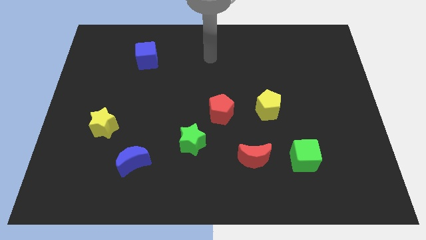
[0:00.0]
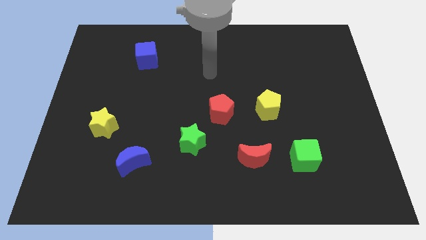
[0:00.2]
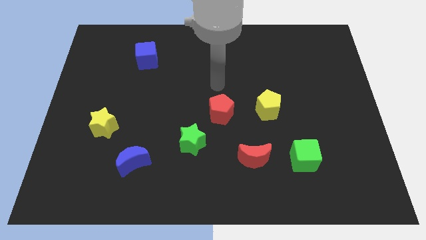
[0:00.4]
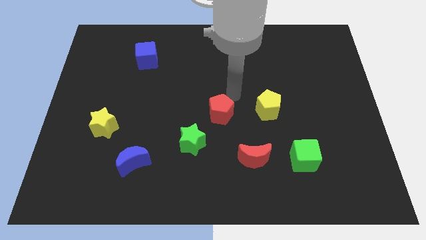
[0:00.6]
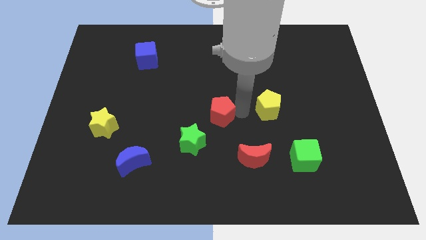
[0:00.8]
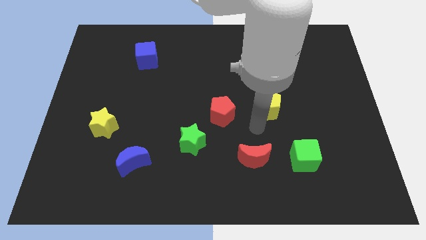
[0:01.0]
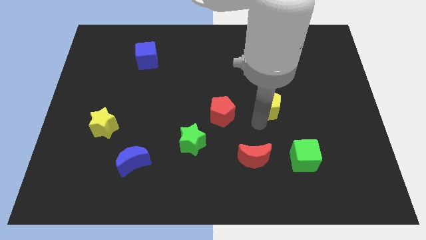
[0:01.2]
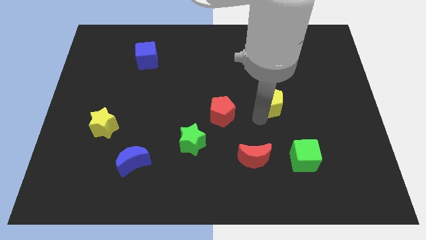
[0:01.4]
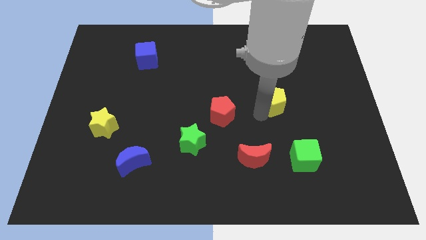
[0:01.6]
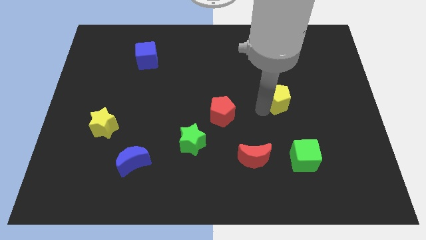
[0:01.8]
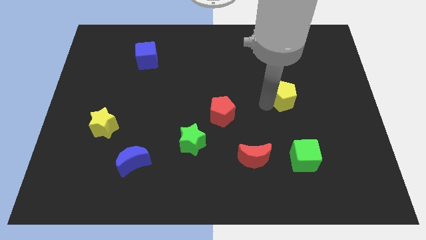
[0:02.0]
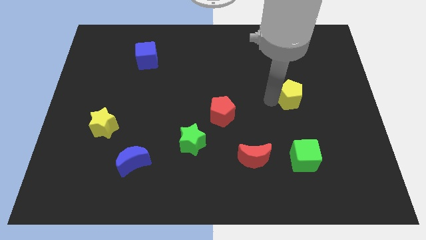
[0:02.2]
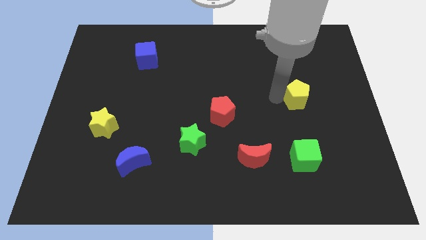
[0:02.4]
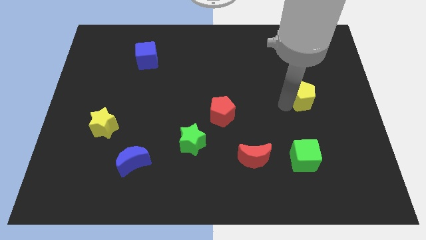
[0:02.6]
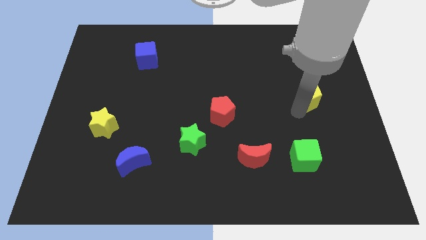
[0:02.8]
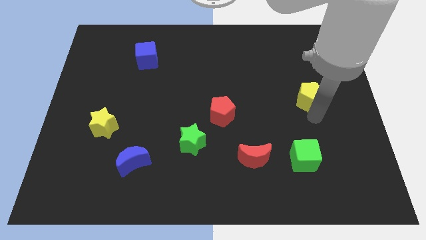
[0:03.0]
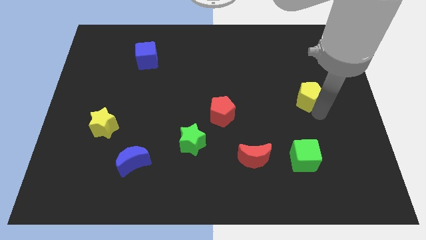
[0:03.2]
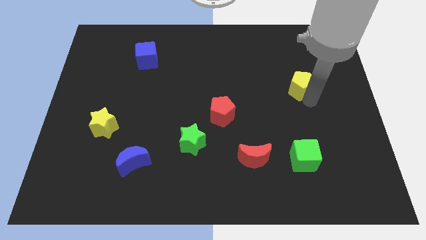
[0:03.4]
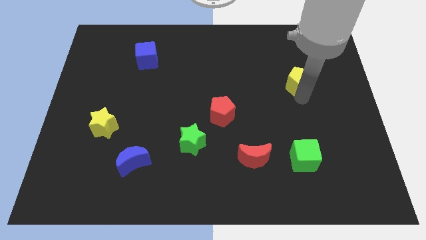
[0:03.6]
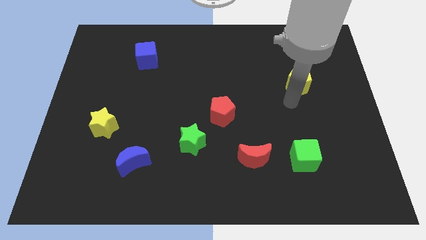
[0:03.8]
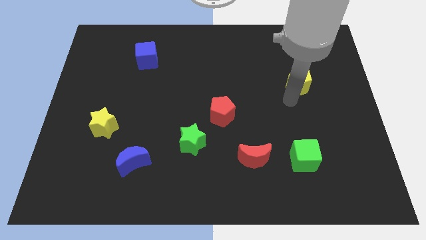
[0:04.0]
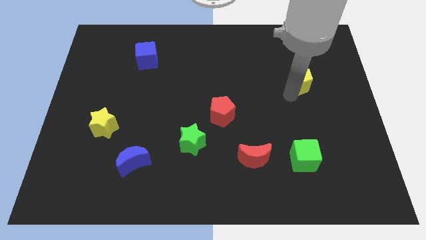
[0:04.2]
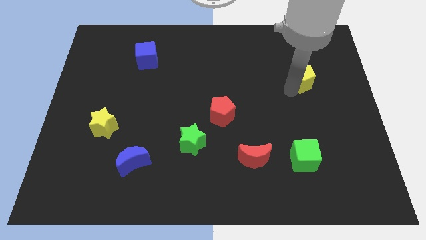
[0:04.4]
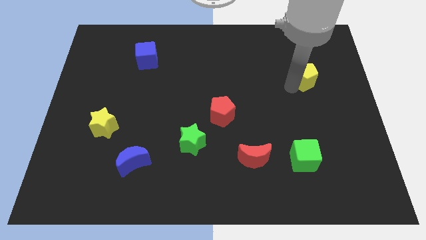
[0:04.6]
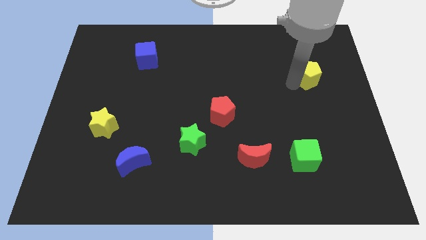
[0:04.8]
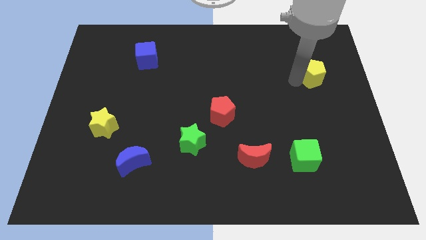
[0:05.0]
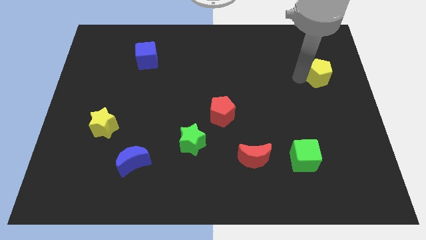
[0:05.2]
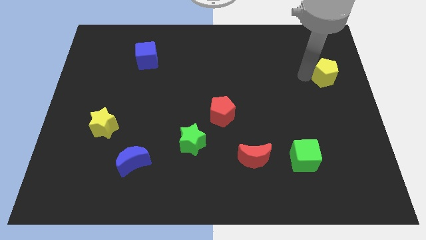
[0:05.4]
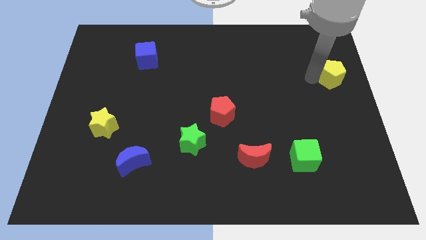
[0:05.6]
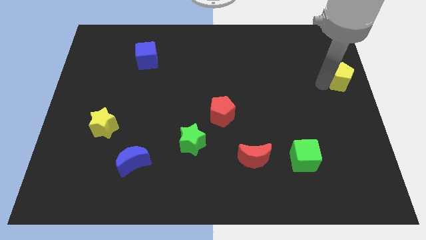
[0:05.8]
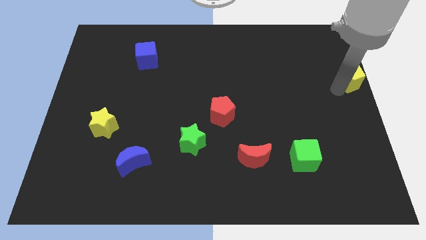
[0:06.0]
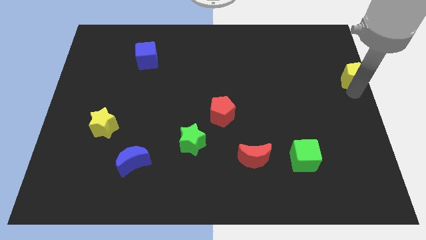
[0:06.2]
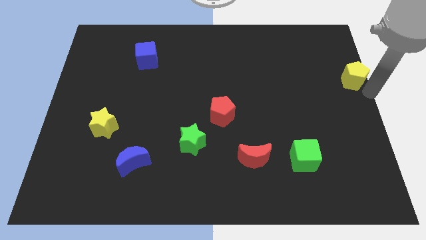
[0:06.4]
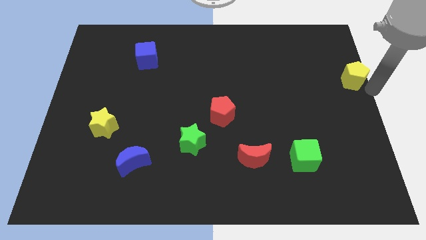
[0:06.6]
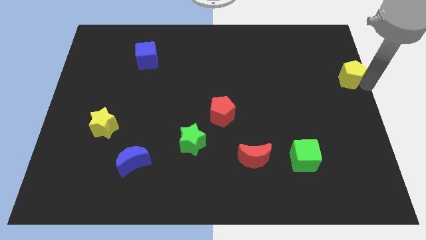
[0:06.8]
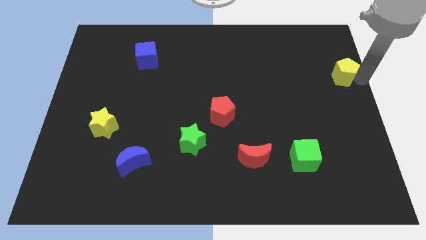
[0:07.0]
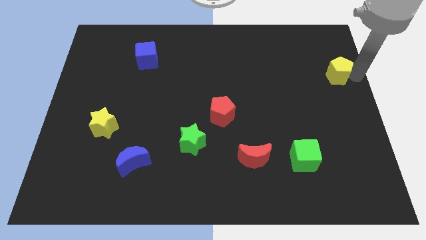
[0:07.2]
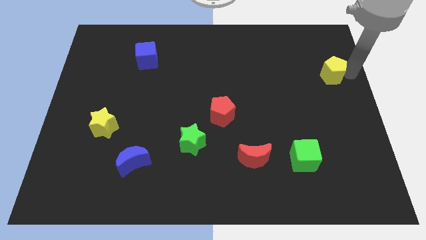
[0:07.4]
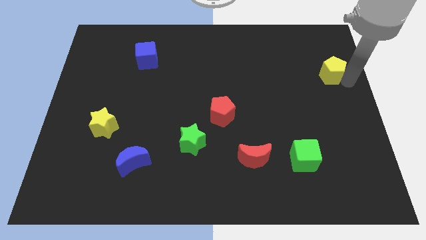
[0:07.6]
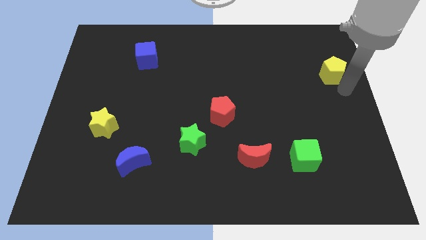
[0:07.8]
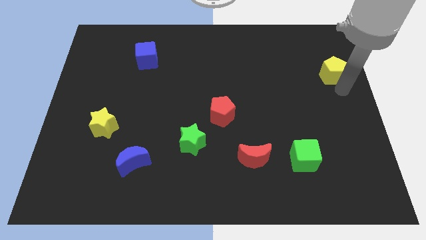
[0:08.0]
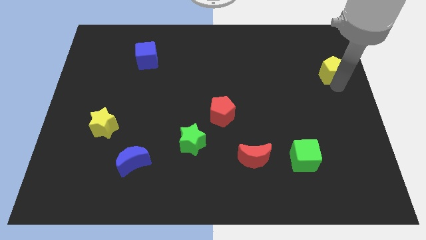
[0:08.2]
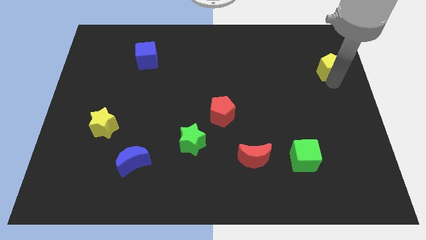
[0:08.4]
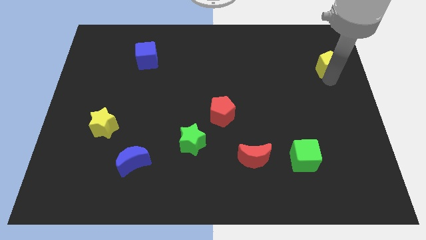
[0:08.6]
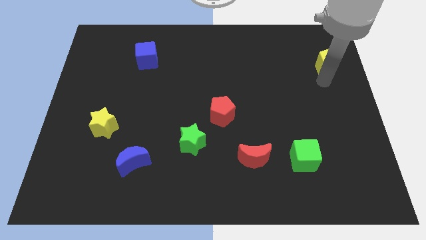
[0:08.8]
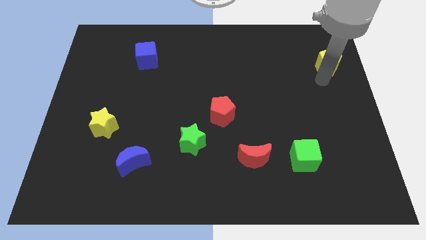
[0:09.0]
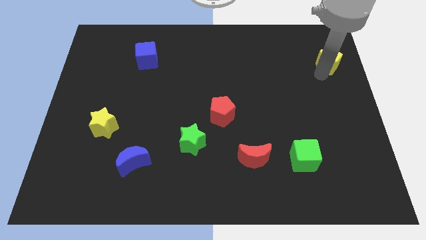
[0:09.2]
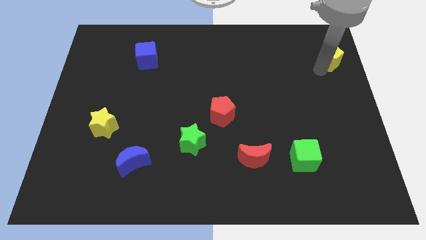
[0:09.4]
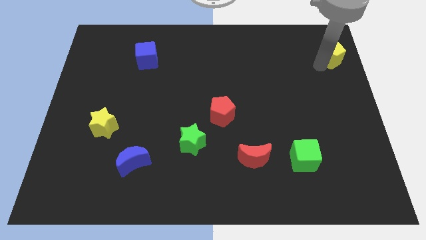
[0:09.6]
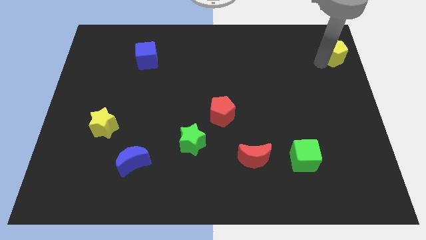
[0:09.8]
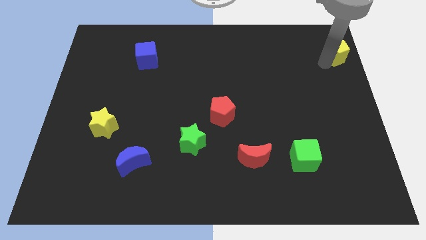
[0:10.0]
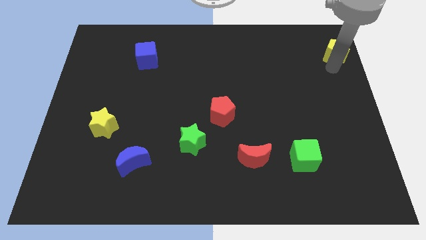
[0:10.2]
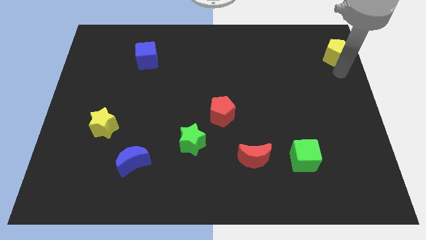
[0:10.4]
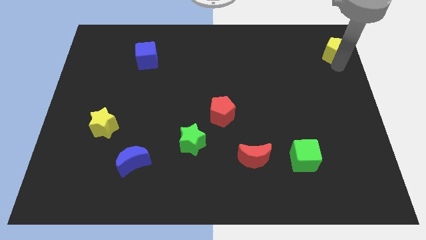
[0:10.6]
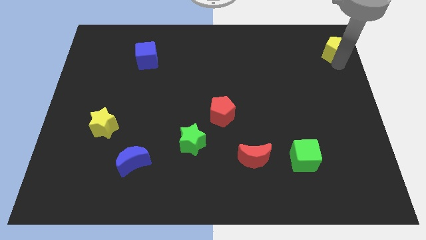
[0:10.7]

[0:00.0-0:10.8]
slide the yellow pentagon to the top right of the board
